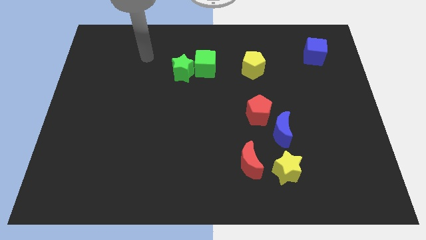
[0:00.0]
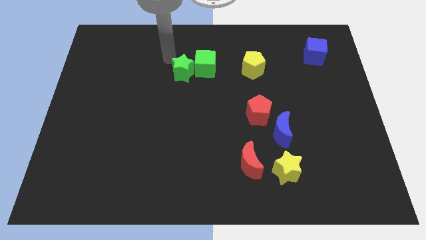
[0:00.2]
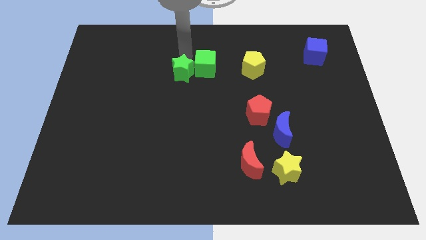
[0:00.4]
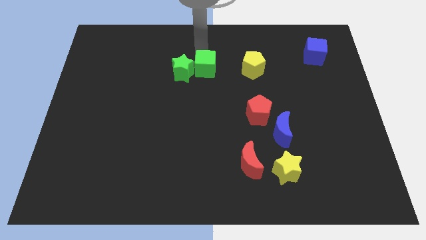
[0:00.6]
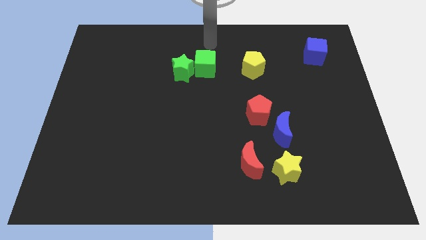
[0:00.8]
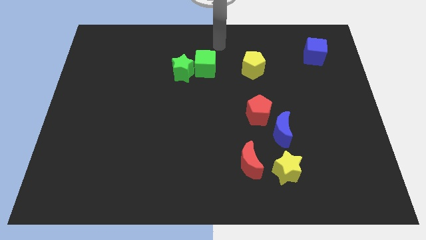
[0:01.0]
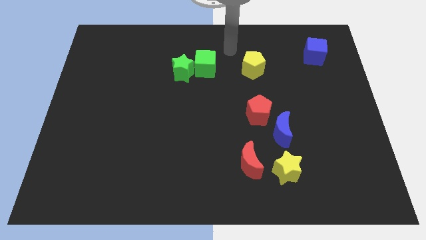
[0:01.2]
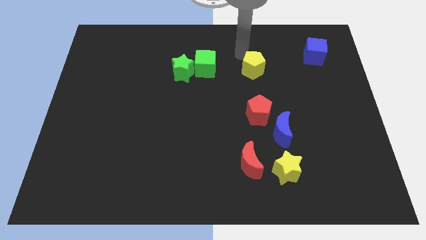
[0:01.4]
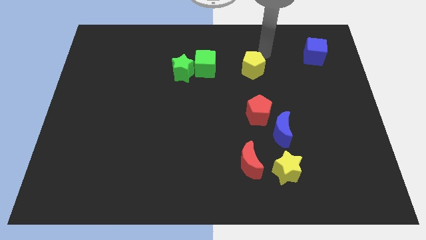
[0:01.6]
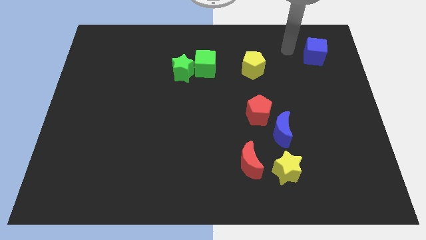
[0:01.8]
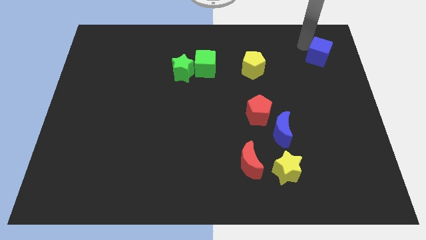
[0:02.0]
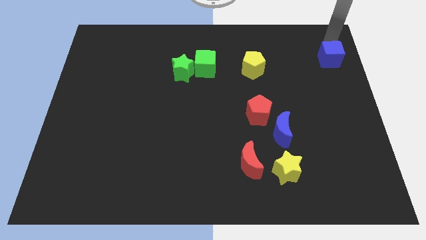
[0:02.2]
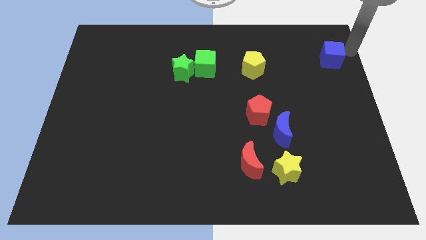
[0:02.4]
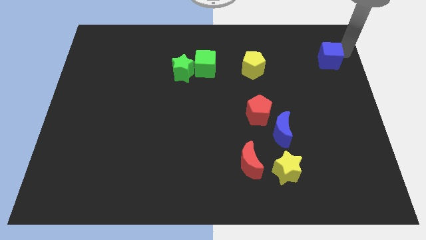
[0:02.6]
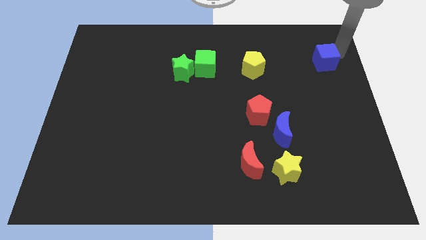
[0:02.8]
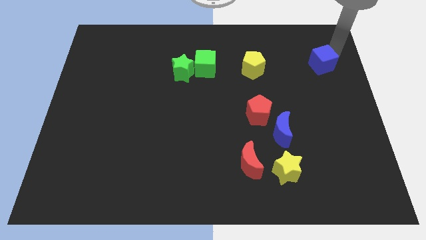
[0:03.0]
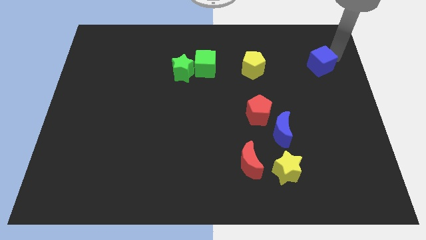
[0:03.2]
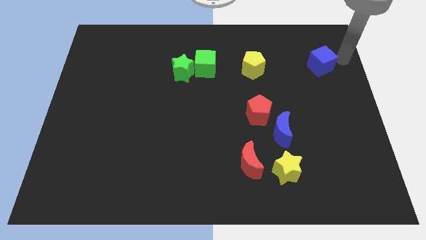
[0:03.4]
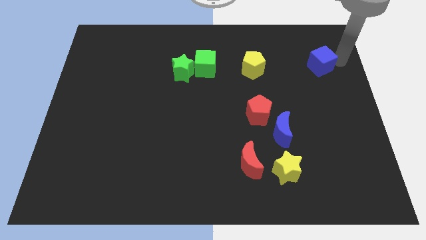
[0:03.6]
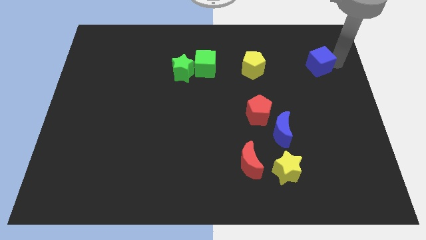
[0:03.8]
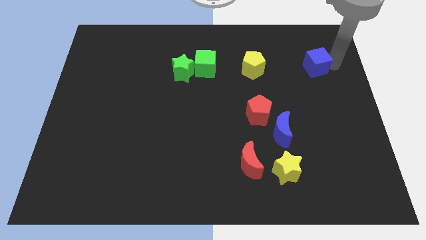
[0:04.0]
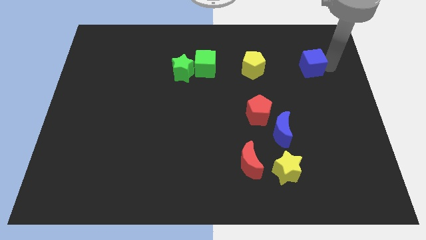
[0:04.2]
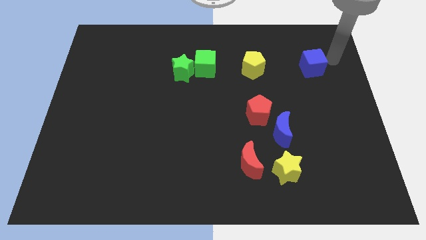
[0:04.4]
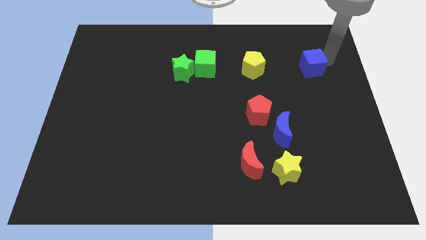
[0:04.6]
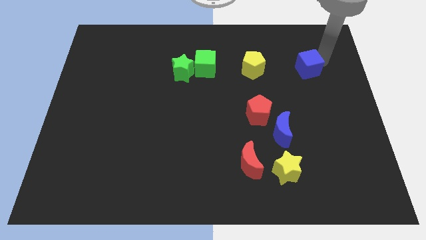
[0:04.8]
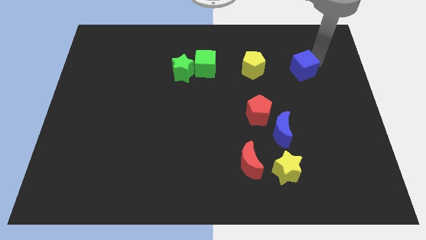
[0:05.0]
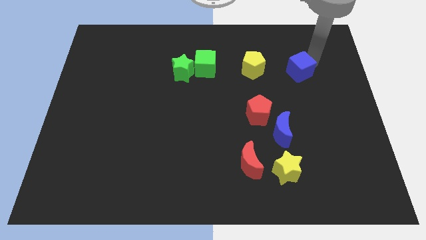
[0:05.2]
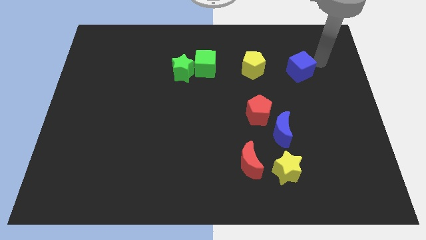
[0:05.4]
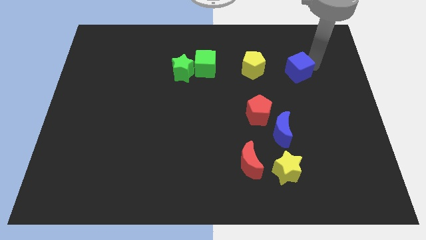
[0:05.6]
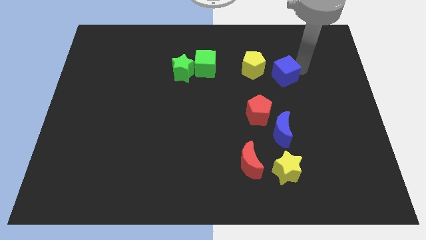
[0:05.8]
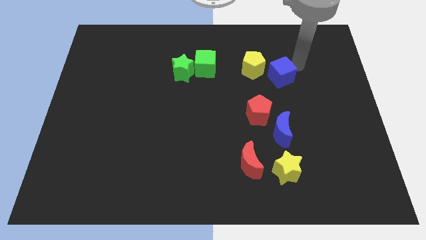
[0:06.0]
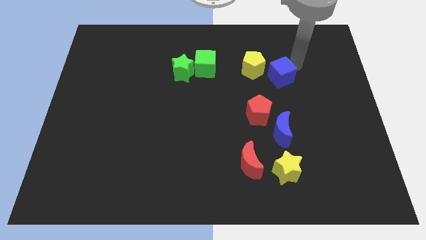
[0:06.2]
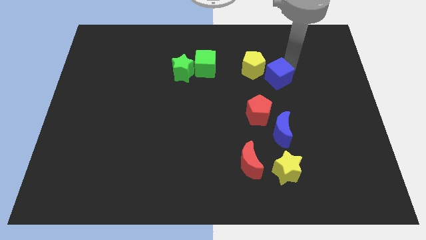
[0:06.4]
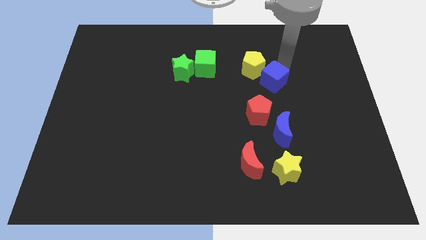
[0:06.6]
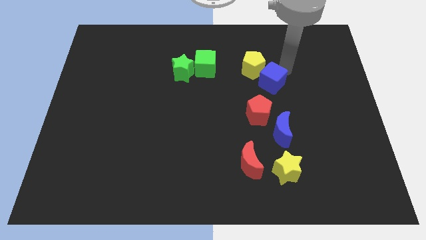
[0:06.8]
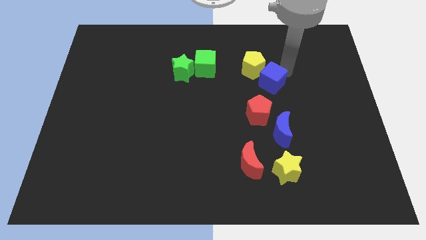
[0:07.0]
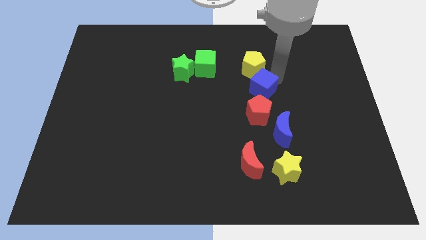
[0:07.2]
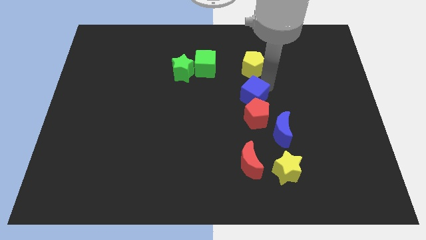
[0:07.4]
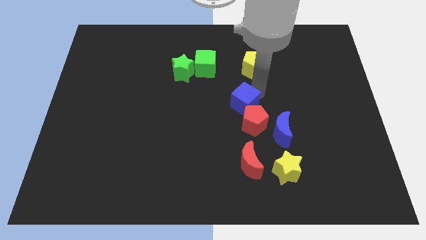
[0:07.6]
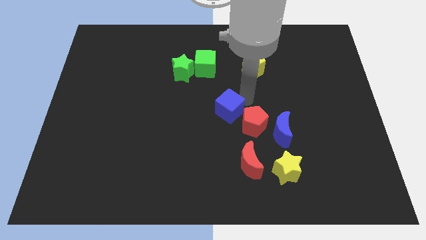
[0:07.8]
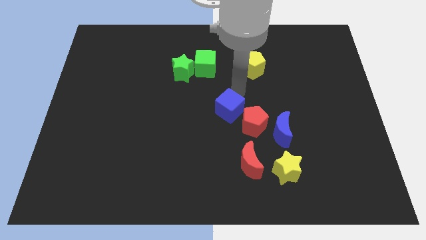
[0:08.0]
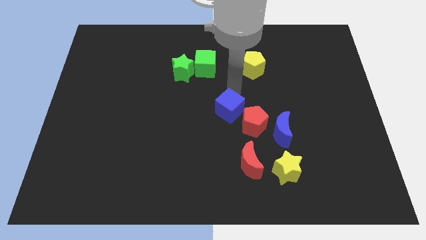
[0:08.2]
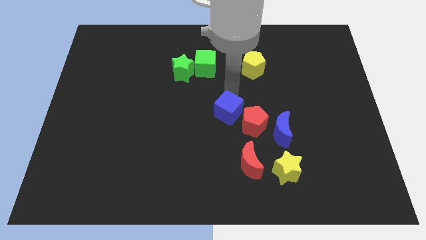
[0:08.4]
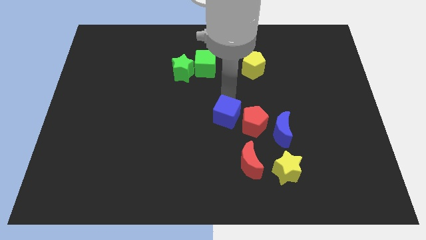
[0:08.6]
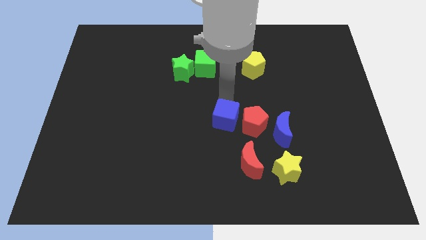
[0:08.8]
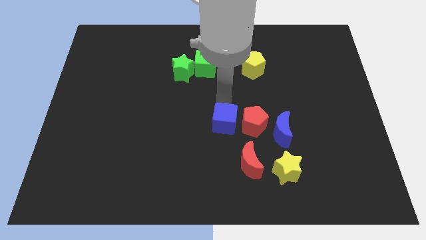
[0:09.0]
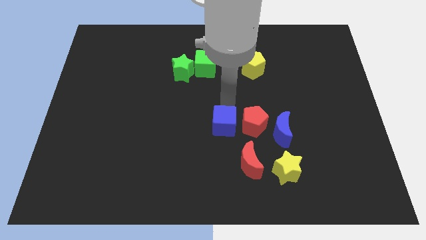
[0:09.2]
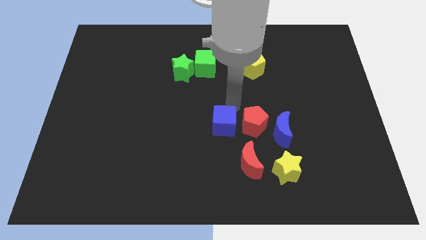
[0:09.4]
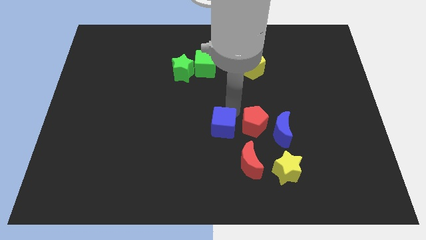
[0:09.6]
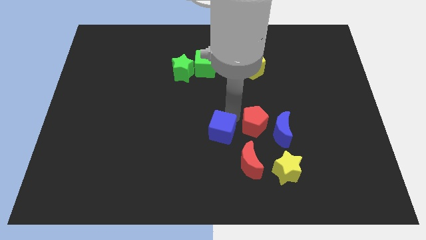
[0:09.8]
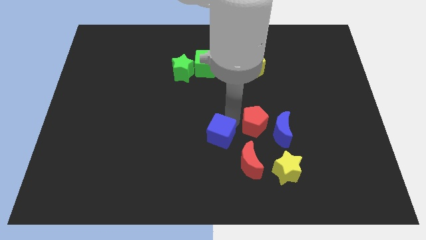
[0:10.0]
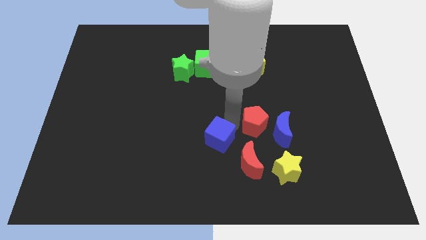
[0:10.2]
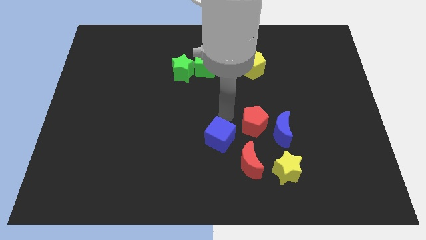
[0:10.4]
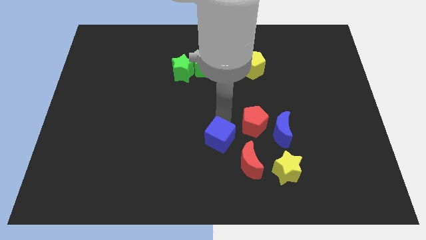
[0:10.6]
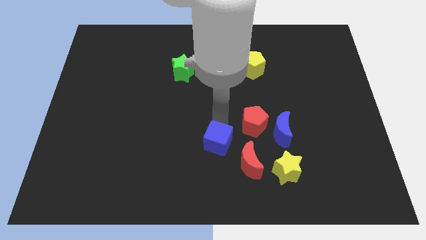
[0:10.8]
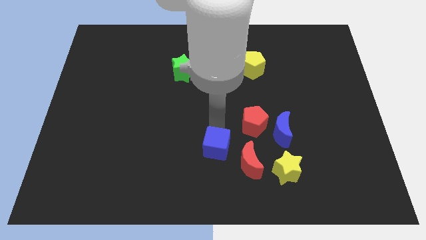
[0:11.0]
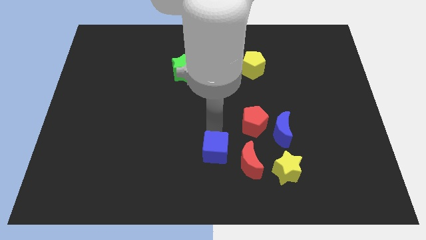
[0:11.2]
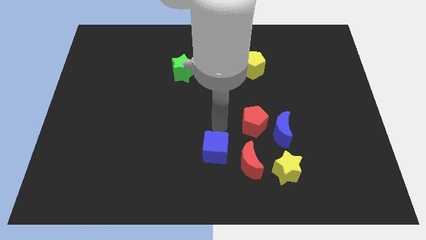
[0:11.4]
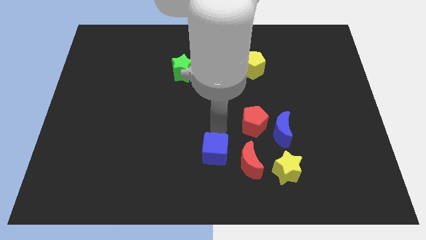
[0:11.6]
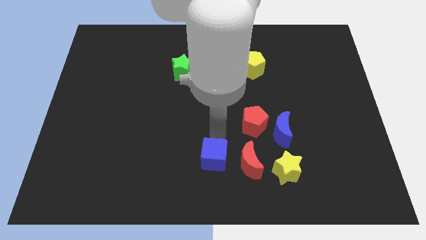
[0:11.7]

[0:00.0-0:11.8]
slide the blue cube to the bottom side
